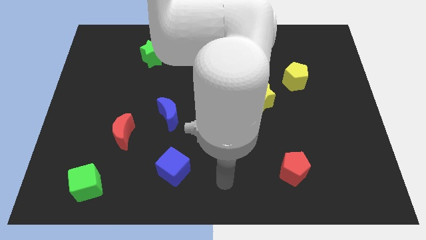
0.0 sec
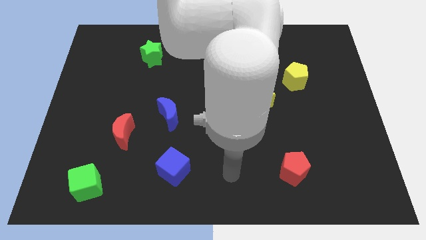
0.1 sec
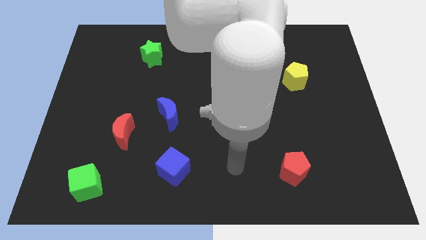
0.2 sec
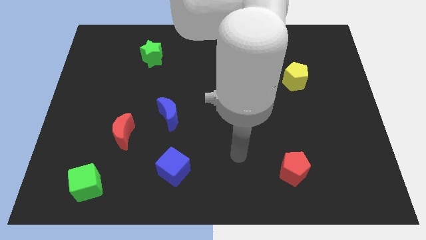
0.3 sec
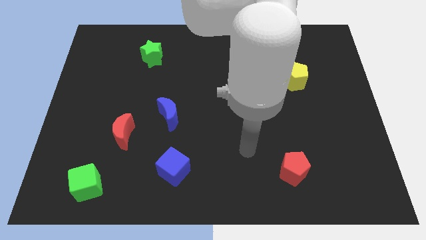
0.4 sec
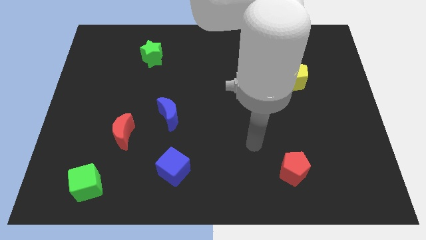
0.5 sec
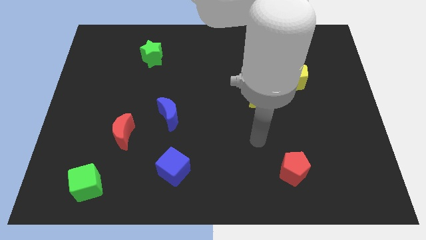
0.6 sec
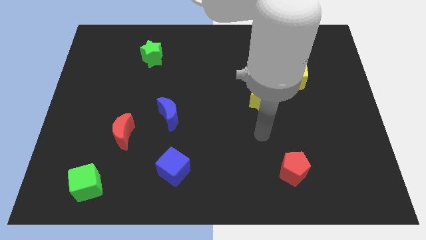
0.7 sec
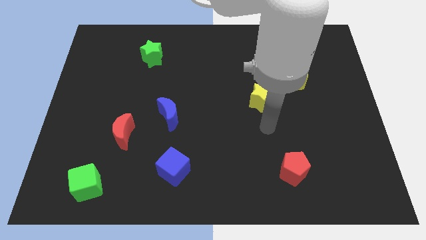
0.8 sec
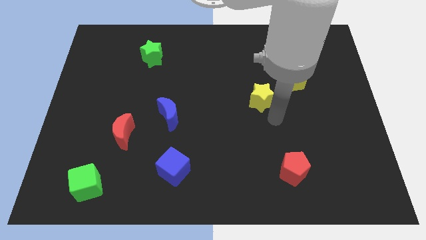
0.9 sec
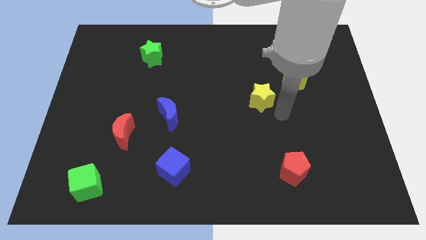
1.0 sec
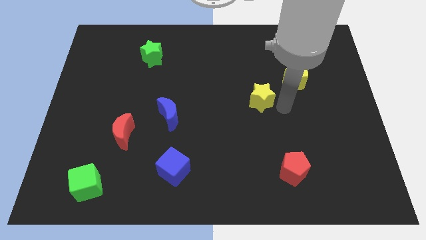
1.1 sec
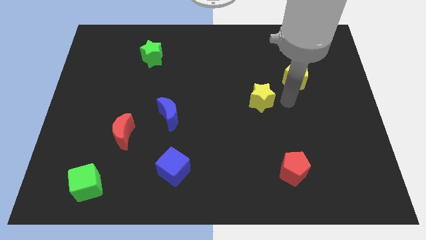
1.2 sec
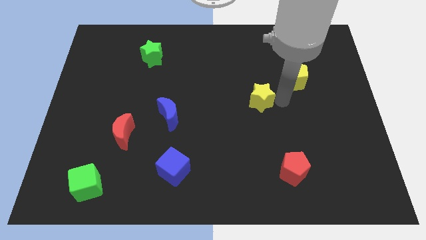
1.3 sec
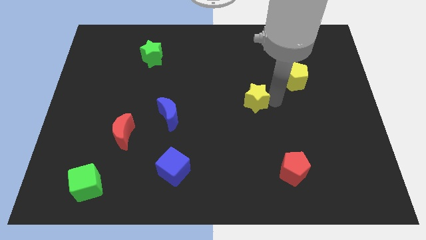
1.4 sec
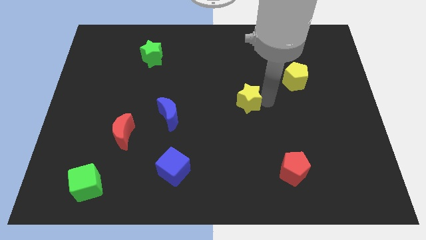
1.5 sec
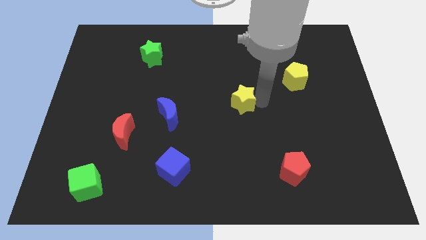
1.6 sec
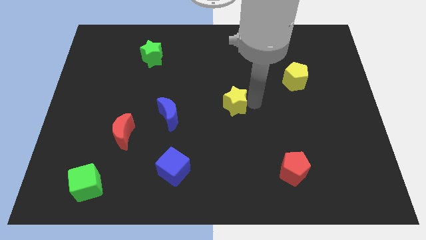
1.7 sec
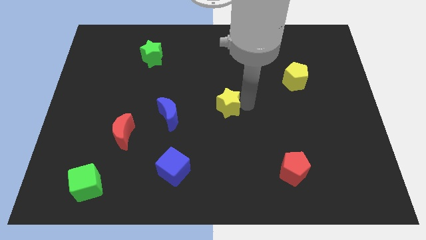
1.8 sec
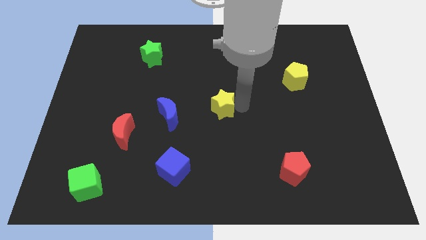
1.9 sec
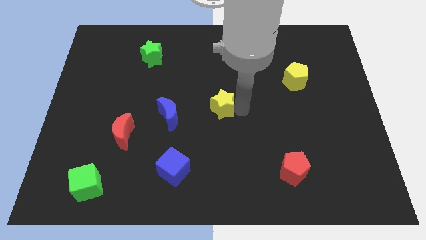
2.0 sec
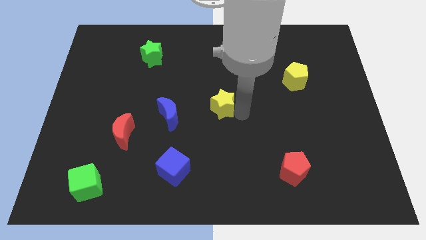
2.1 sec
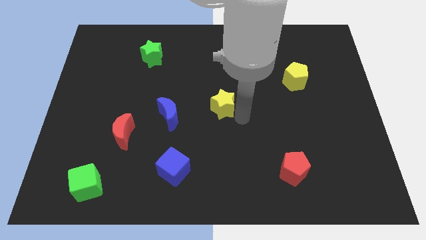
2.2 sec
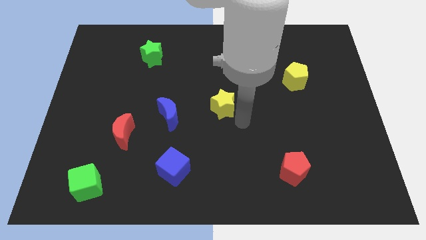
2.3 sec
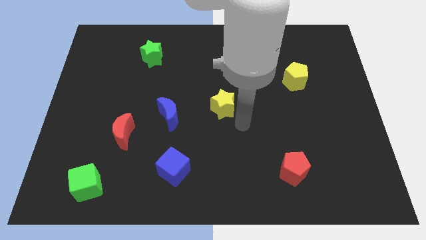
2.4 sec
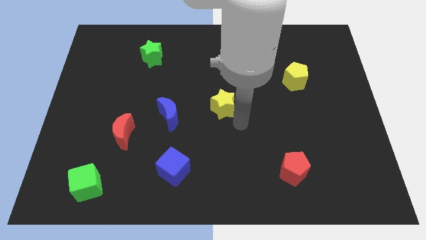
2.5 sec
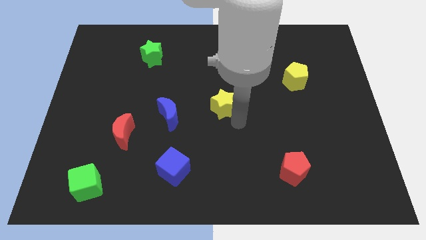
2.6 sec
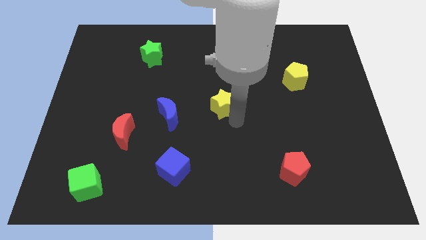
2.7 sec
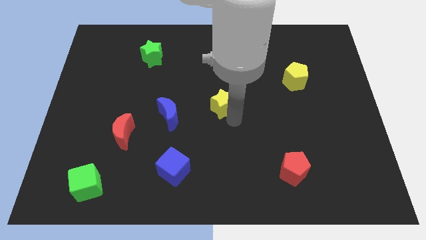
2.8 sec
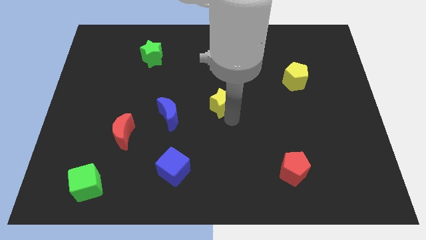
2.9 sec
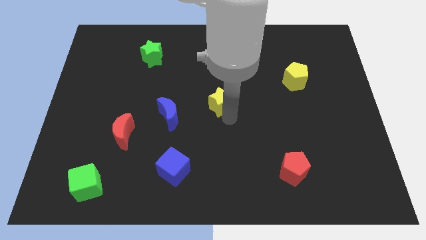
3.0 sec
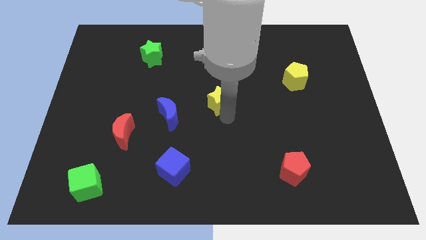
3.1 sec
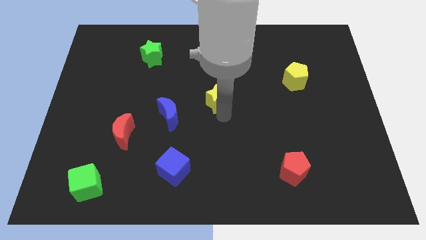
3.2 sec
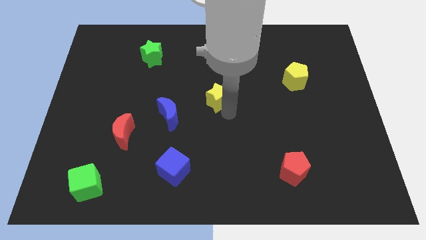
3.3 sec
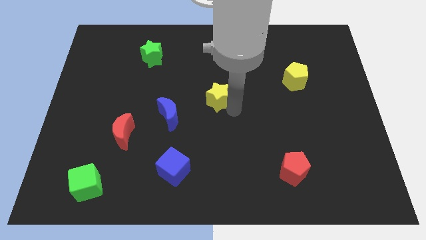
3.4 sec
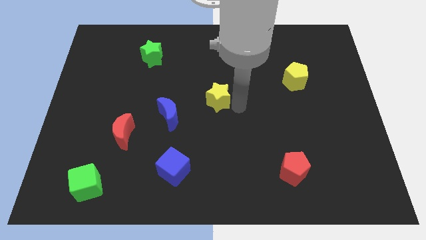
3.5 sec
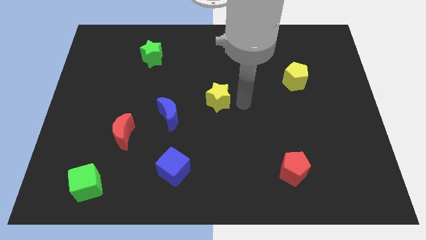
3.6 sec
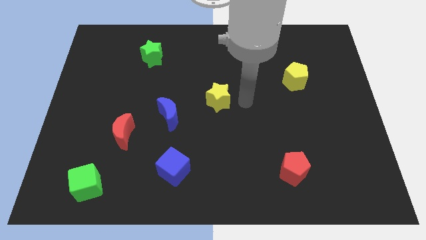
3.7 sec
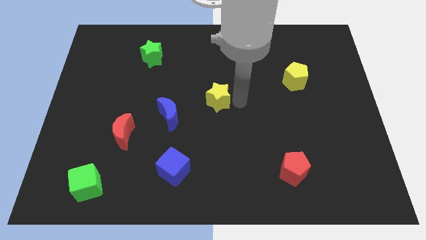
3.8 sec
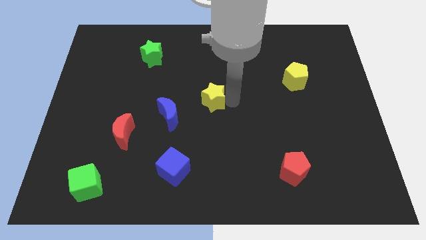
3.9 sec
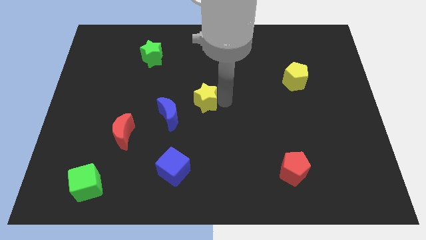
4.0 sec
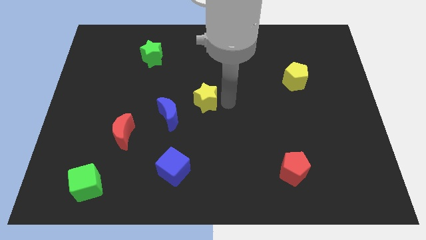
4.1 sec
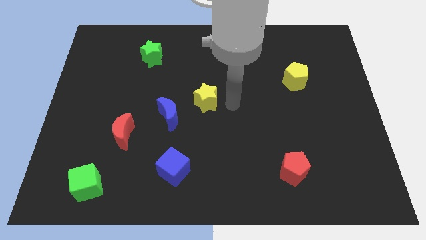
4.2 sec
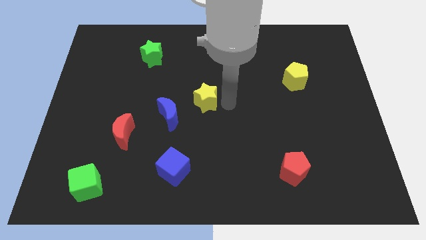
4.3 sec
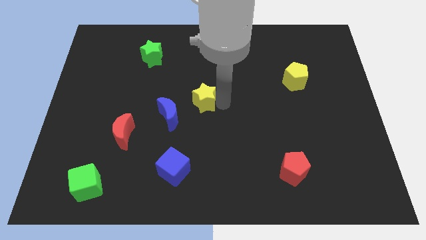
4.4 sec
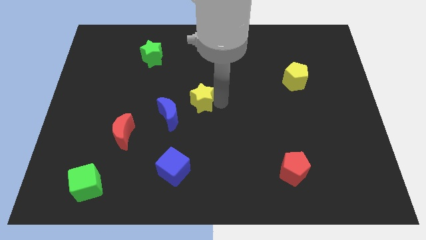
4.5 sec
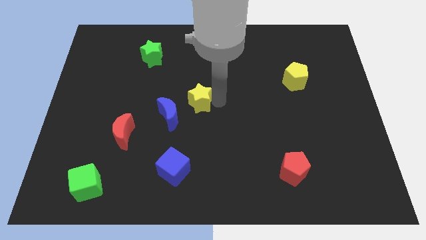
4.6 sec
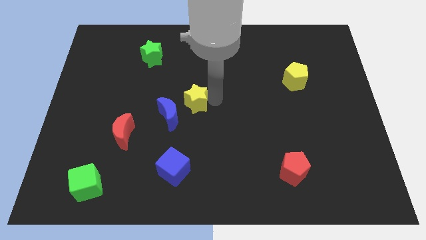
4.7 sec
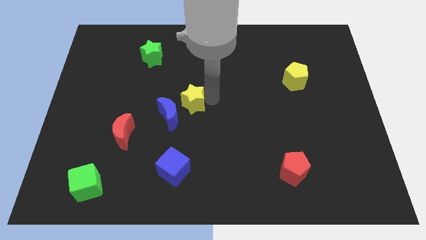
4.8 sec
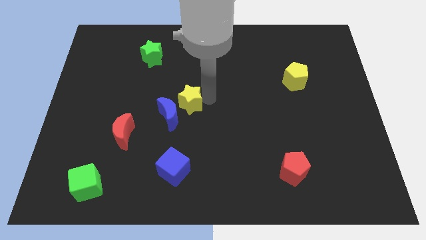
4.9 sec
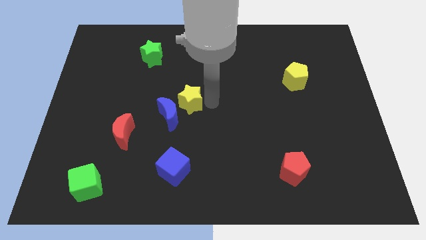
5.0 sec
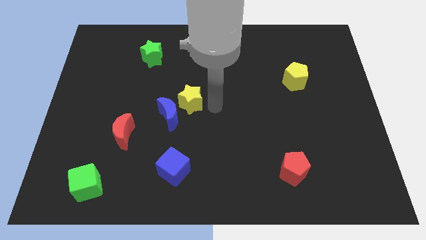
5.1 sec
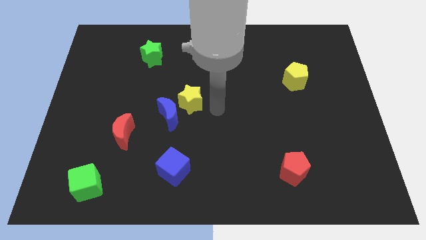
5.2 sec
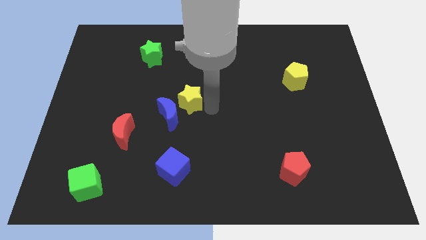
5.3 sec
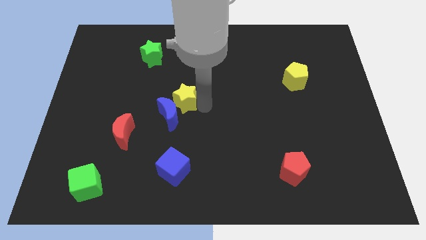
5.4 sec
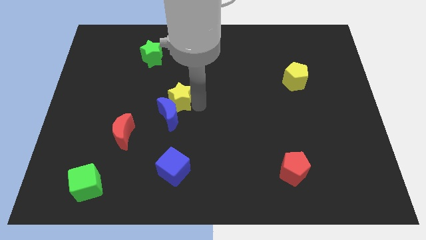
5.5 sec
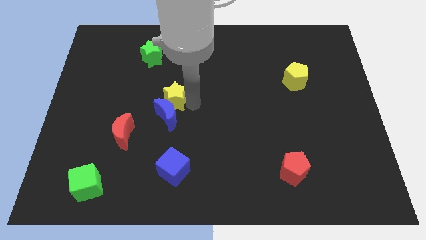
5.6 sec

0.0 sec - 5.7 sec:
slide the yellow star to the left

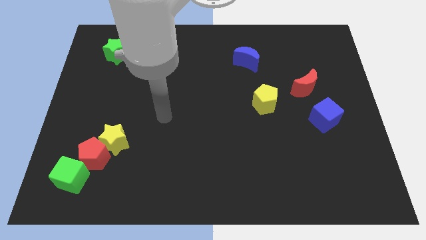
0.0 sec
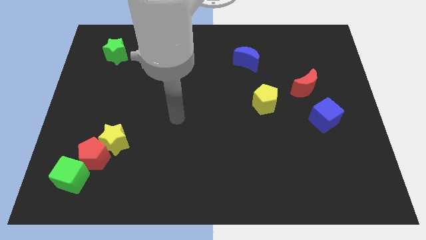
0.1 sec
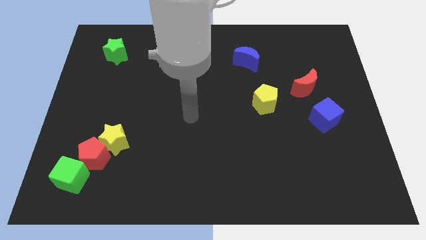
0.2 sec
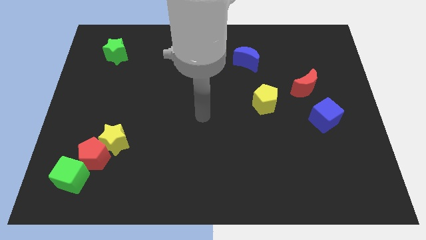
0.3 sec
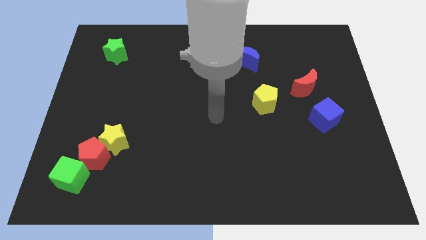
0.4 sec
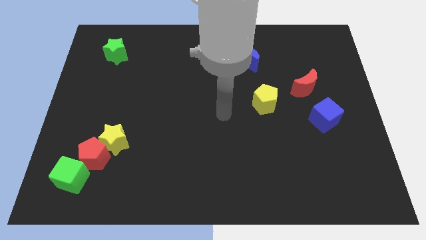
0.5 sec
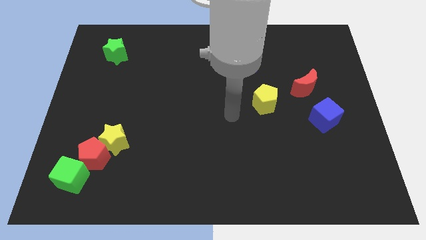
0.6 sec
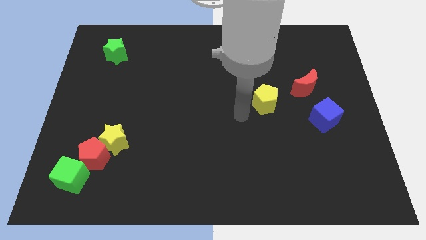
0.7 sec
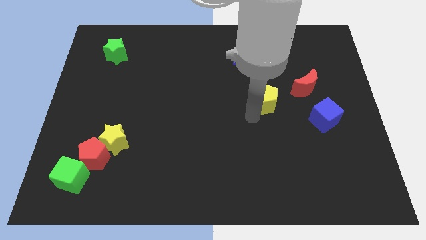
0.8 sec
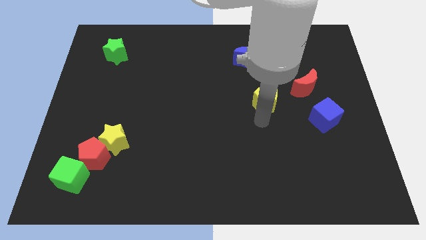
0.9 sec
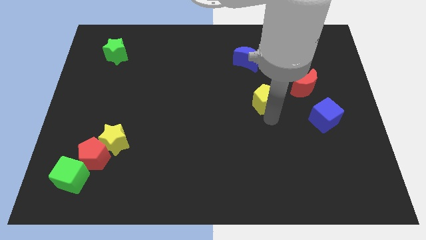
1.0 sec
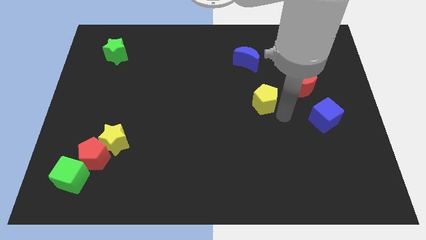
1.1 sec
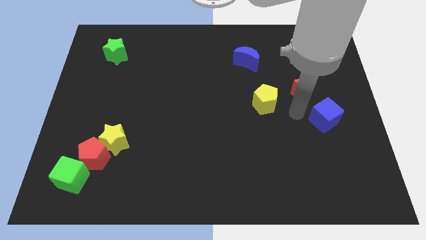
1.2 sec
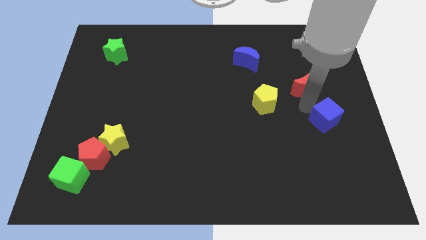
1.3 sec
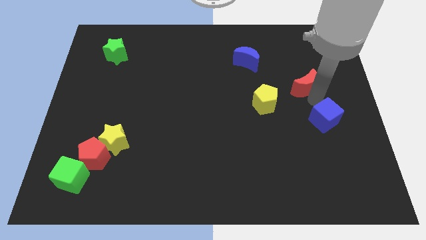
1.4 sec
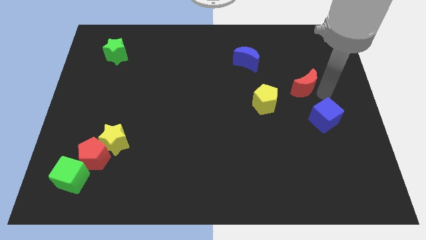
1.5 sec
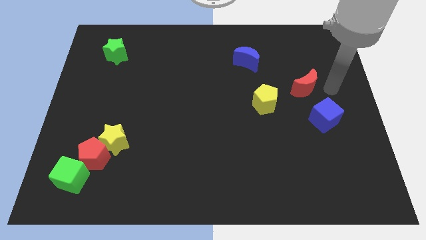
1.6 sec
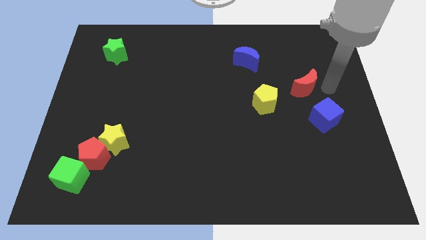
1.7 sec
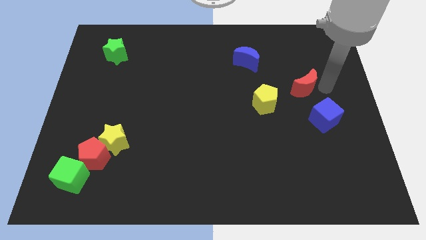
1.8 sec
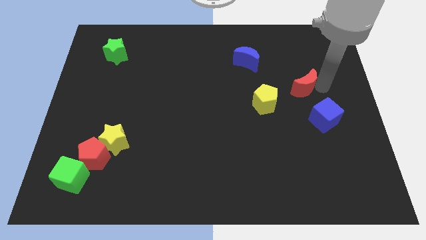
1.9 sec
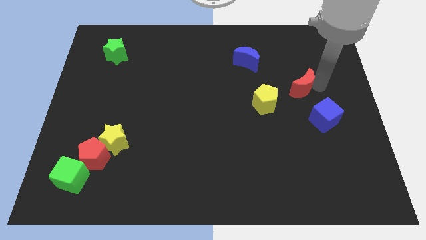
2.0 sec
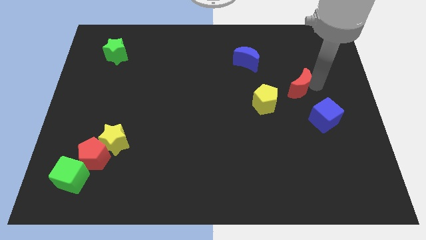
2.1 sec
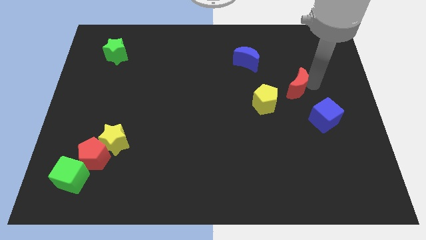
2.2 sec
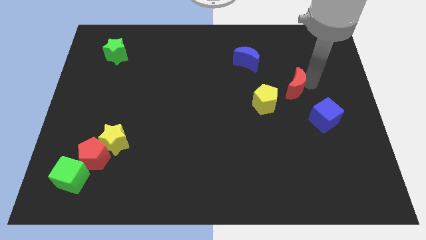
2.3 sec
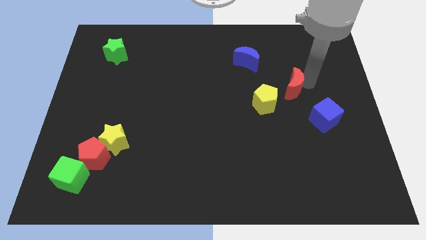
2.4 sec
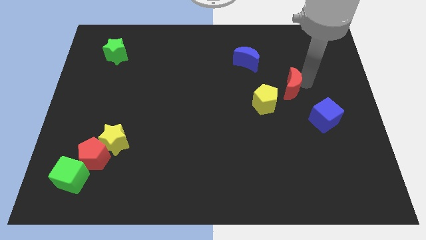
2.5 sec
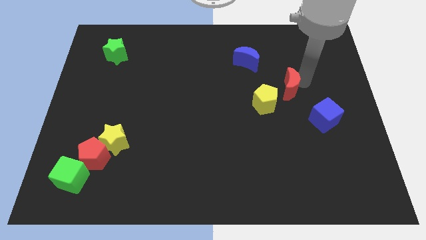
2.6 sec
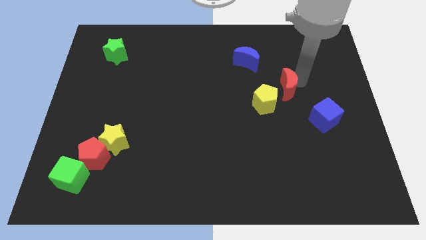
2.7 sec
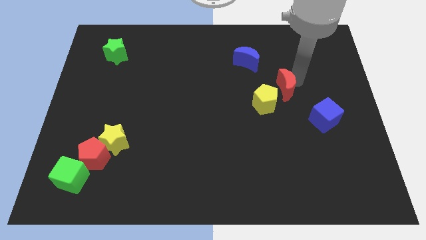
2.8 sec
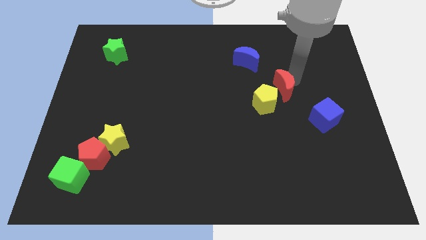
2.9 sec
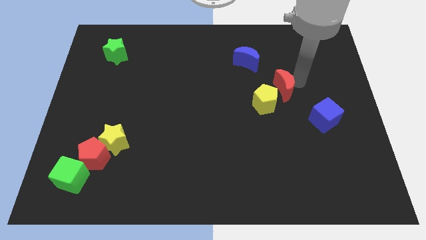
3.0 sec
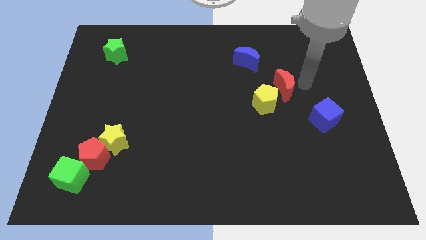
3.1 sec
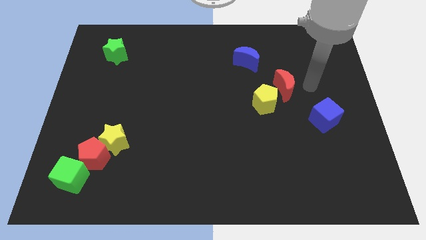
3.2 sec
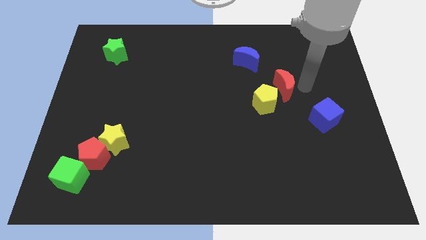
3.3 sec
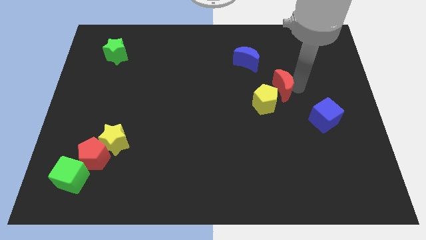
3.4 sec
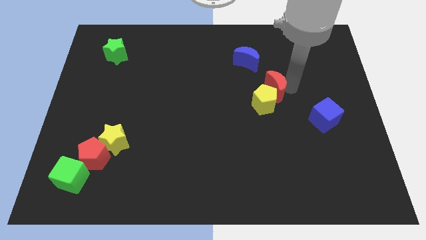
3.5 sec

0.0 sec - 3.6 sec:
slightly push the red moon left
